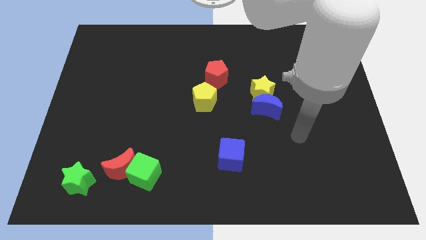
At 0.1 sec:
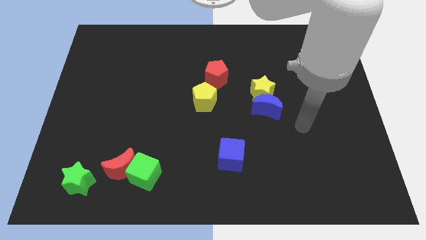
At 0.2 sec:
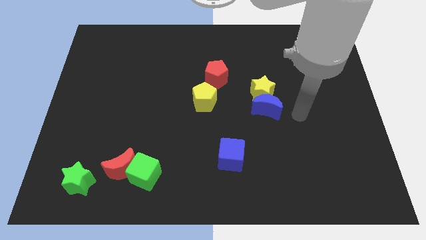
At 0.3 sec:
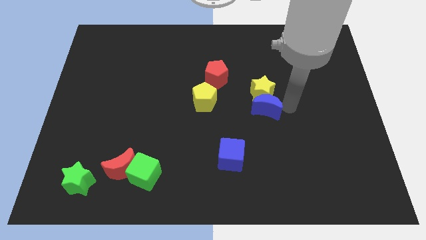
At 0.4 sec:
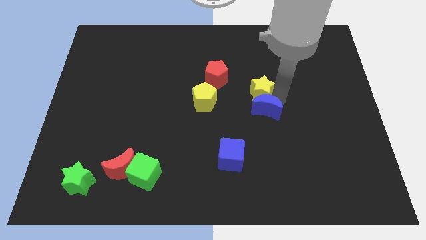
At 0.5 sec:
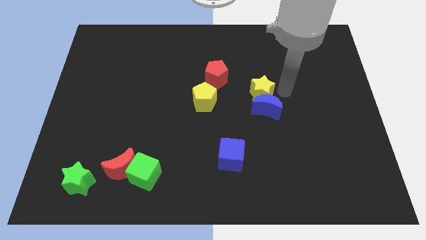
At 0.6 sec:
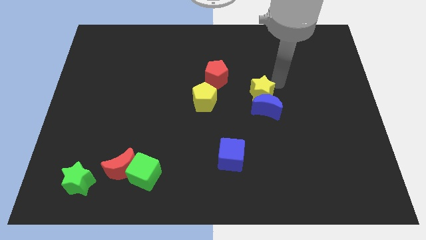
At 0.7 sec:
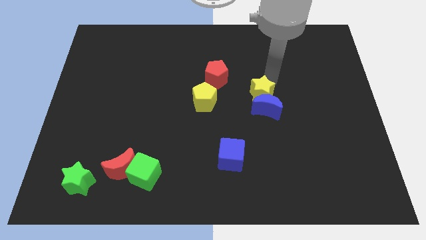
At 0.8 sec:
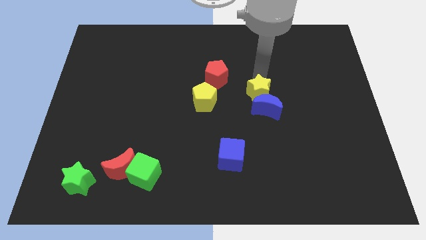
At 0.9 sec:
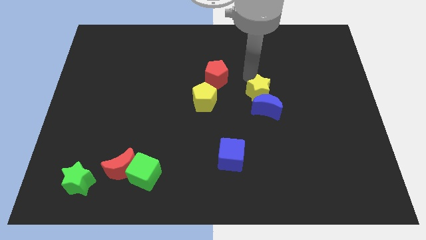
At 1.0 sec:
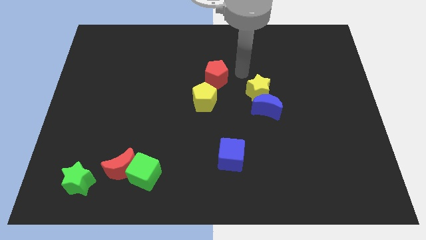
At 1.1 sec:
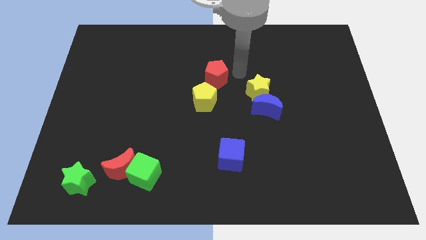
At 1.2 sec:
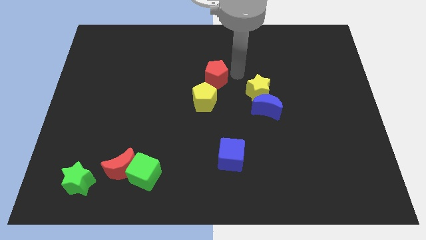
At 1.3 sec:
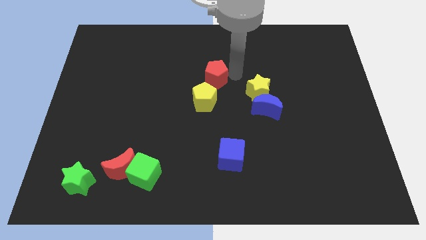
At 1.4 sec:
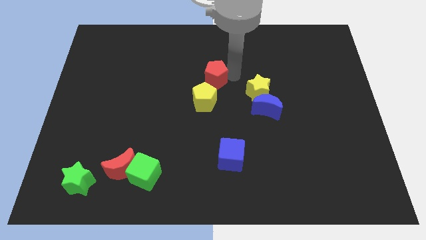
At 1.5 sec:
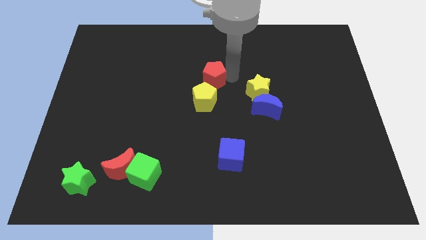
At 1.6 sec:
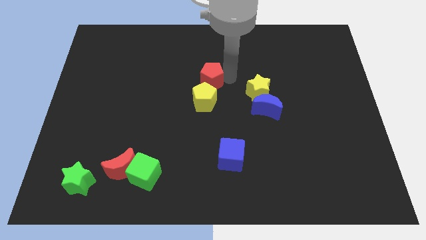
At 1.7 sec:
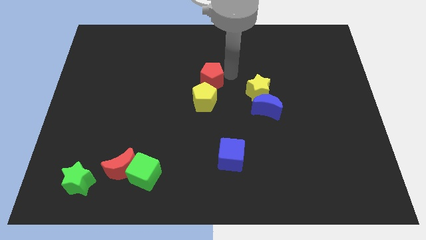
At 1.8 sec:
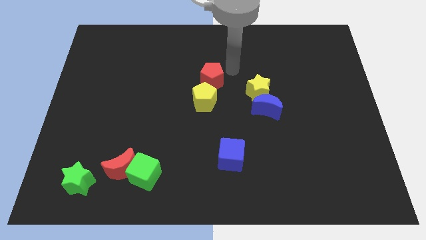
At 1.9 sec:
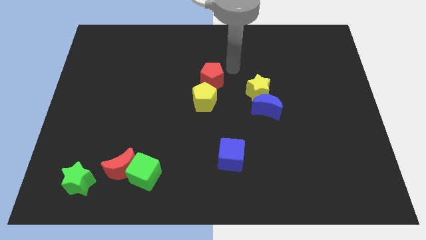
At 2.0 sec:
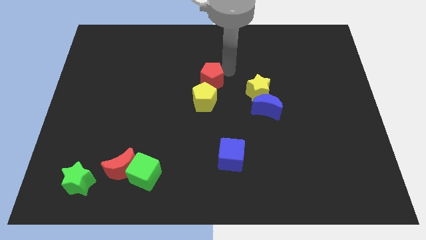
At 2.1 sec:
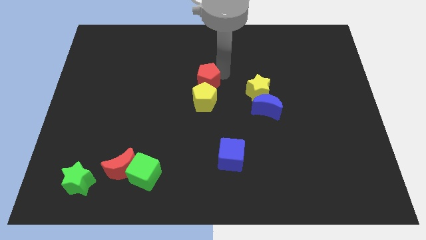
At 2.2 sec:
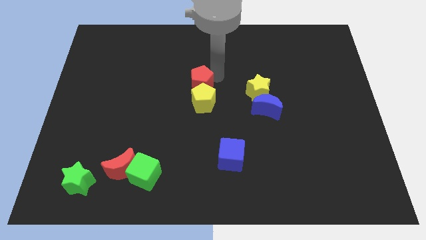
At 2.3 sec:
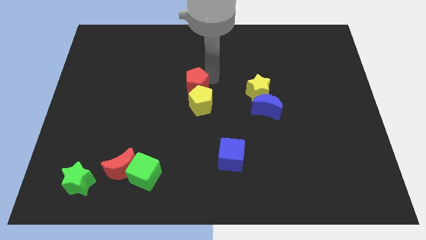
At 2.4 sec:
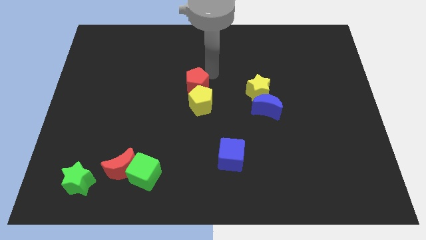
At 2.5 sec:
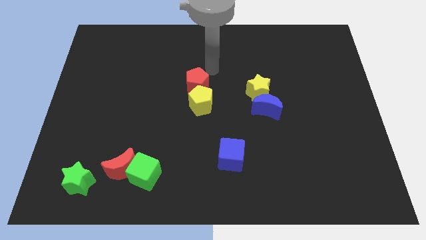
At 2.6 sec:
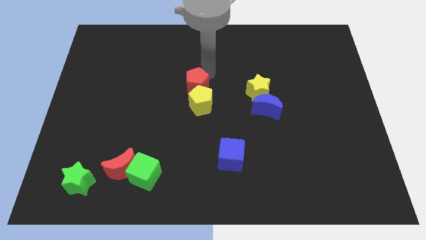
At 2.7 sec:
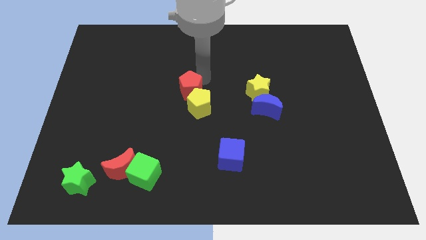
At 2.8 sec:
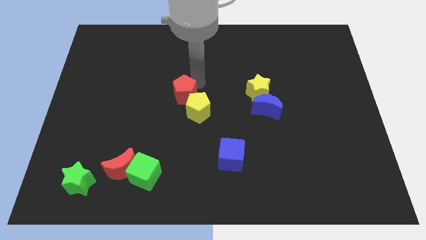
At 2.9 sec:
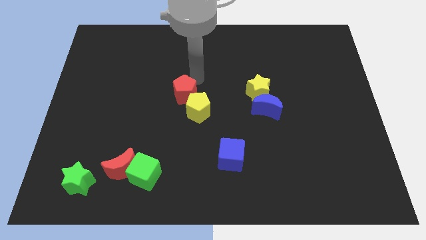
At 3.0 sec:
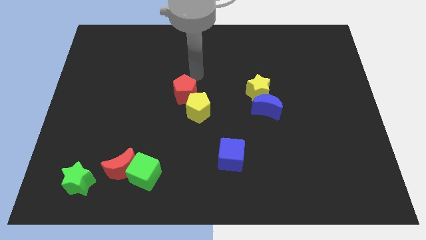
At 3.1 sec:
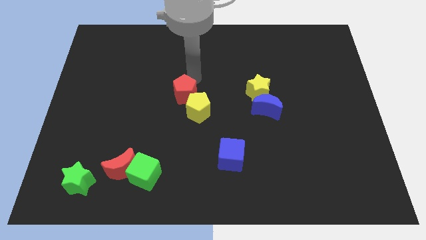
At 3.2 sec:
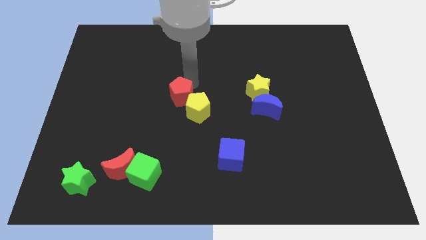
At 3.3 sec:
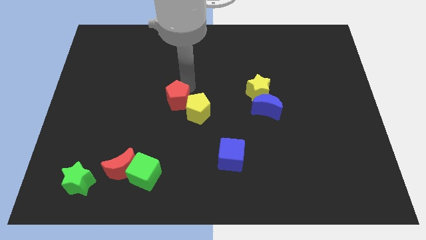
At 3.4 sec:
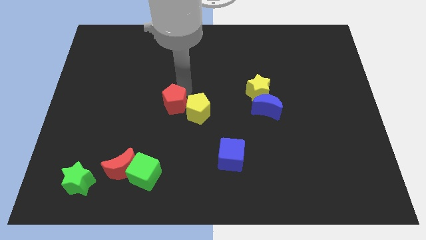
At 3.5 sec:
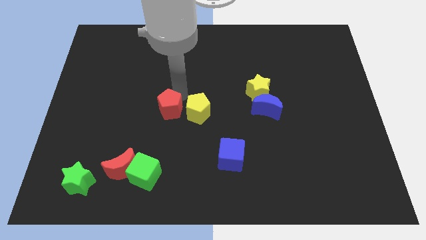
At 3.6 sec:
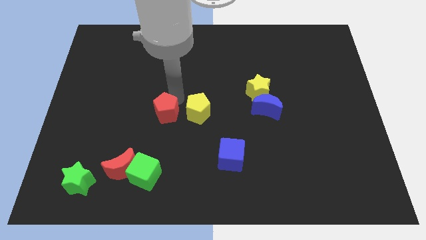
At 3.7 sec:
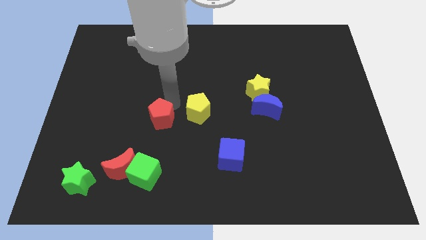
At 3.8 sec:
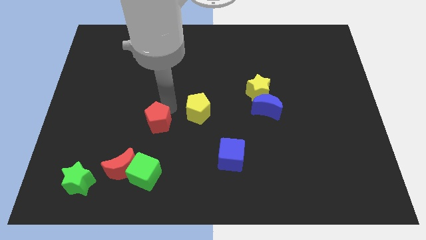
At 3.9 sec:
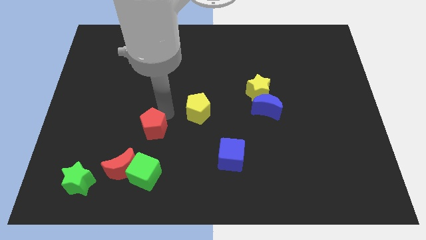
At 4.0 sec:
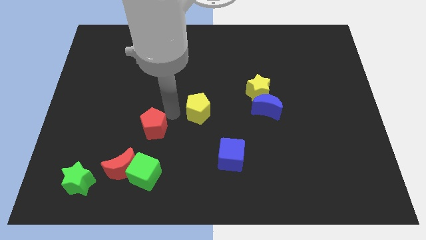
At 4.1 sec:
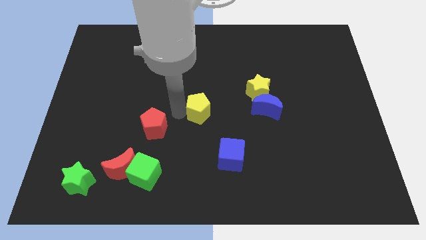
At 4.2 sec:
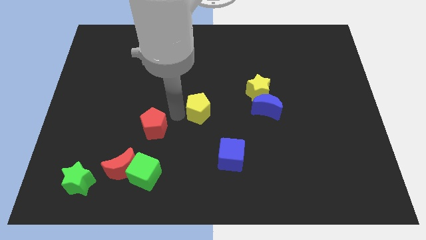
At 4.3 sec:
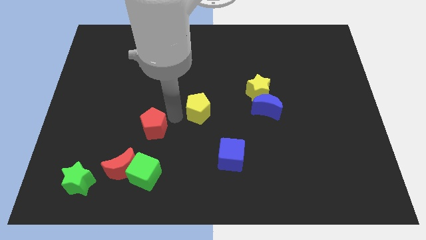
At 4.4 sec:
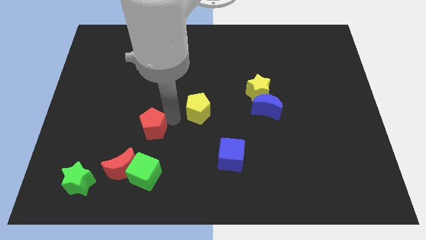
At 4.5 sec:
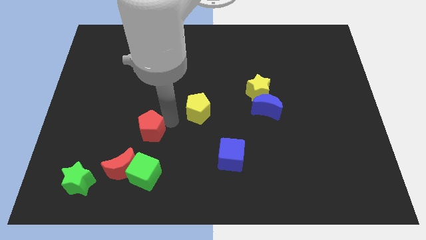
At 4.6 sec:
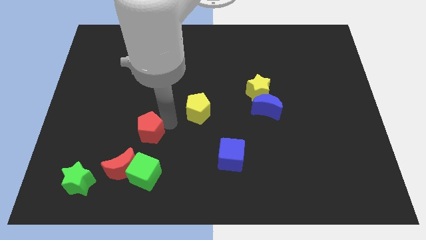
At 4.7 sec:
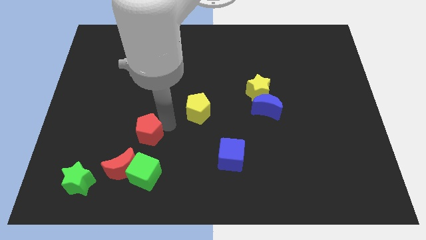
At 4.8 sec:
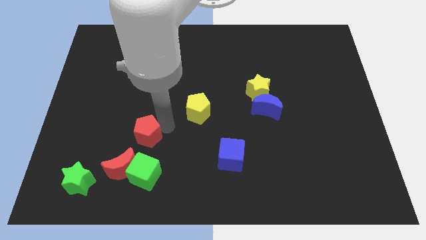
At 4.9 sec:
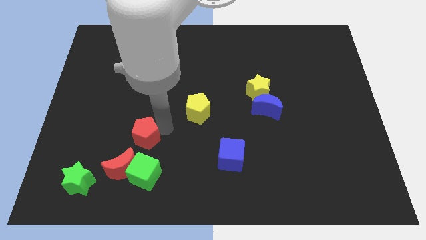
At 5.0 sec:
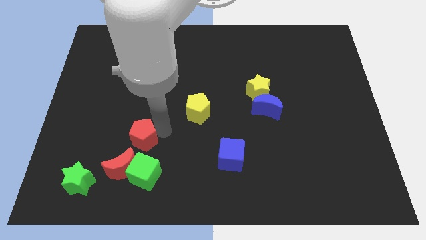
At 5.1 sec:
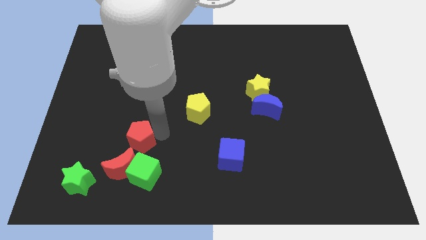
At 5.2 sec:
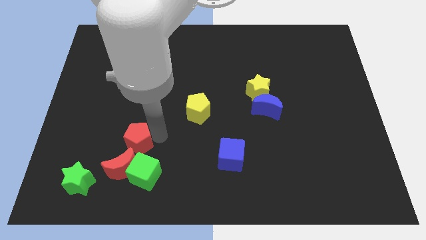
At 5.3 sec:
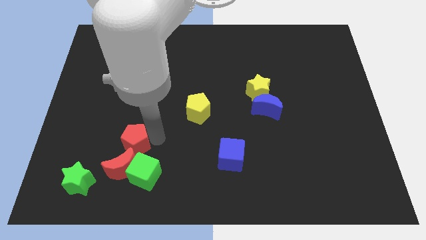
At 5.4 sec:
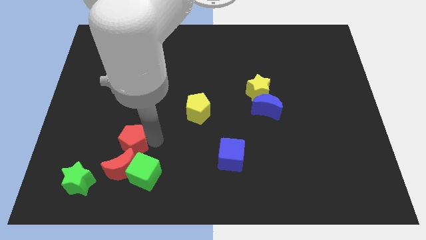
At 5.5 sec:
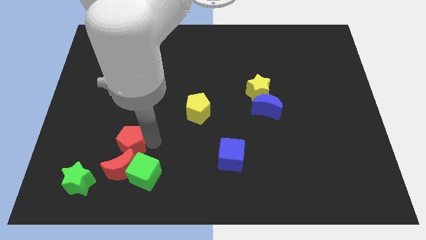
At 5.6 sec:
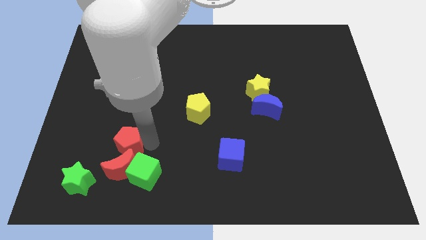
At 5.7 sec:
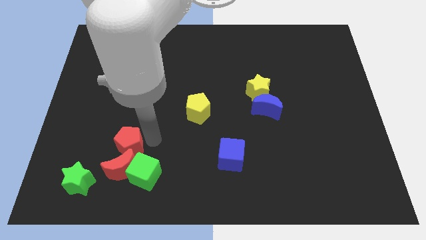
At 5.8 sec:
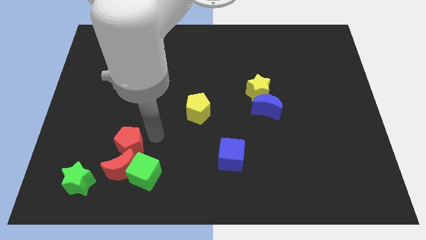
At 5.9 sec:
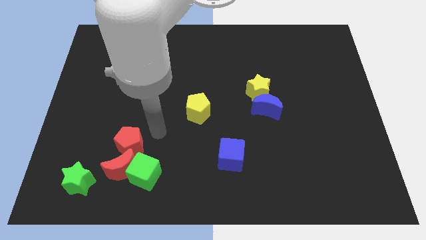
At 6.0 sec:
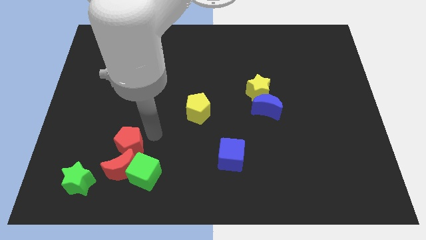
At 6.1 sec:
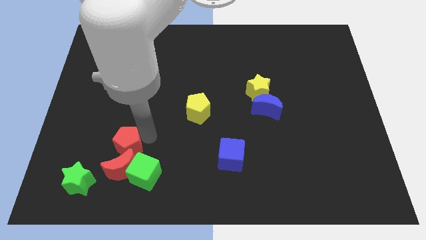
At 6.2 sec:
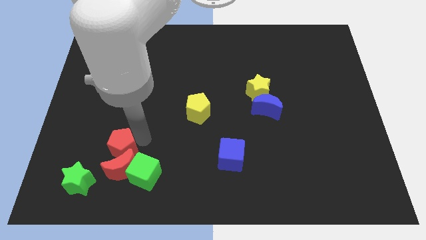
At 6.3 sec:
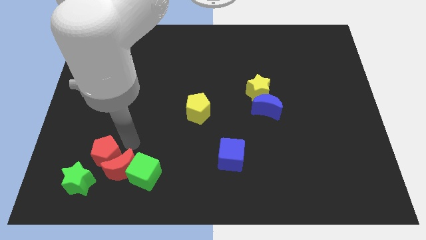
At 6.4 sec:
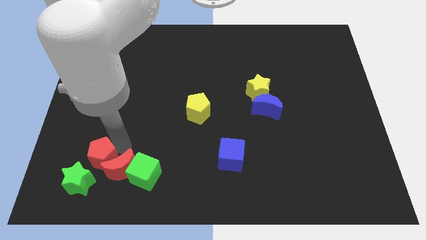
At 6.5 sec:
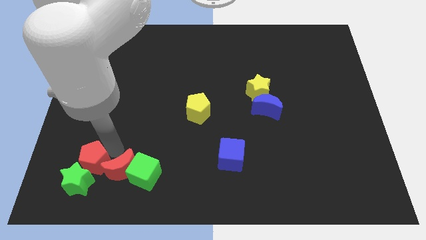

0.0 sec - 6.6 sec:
push the red pentagon to the green star

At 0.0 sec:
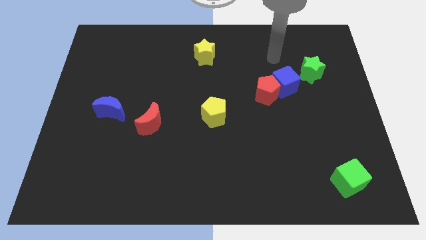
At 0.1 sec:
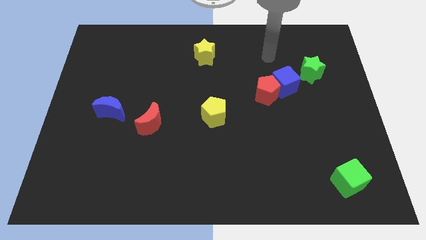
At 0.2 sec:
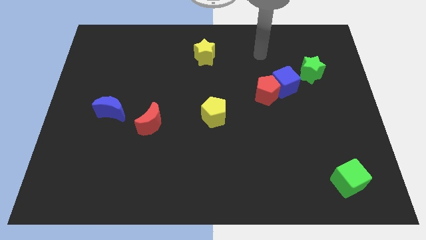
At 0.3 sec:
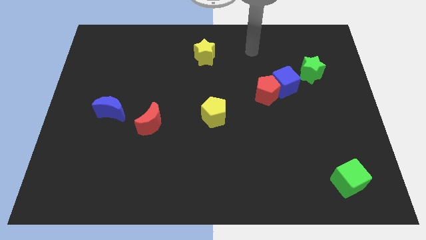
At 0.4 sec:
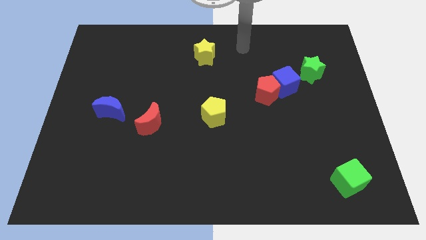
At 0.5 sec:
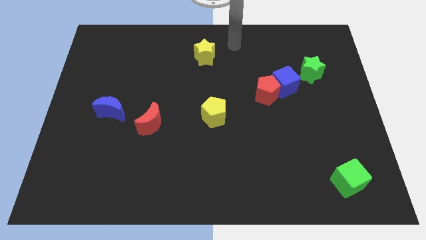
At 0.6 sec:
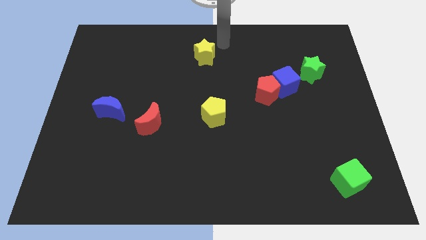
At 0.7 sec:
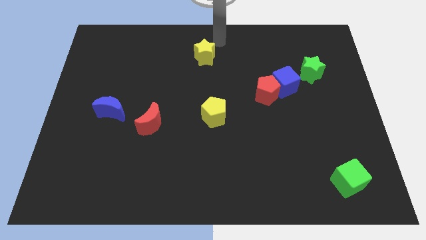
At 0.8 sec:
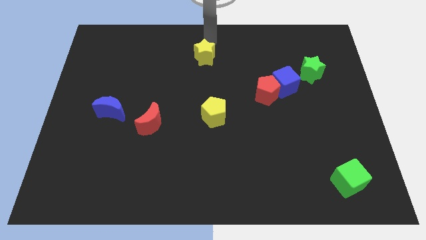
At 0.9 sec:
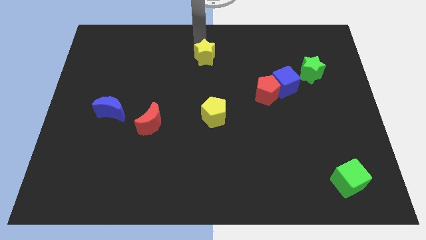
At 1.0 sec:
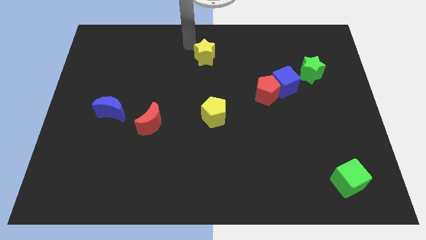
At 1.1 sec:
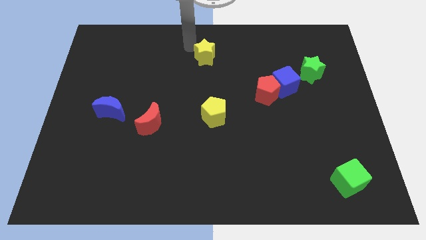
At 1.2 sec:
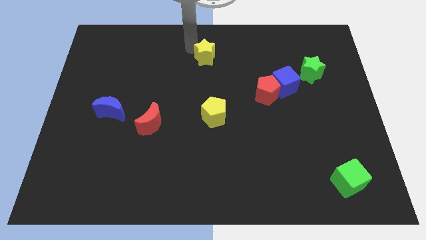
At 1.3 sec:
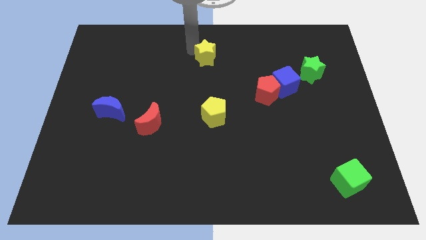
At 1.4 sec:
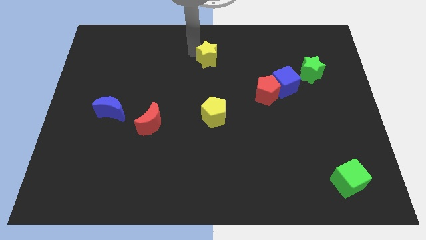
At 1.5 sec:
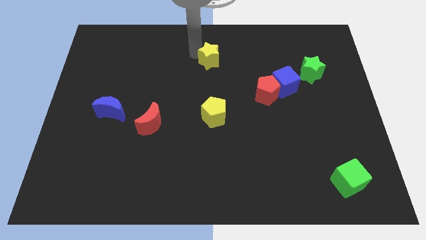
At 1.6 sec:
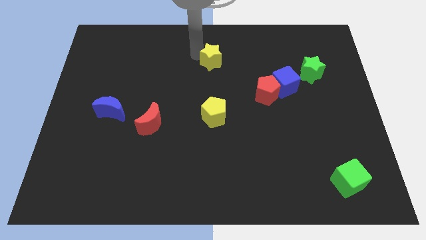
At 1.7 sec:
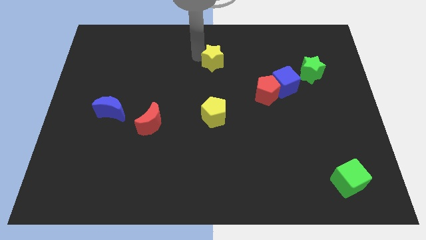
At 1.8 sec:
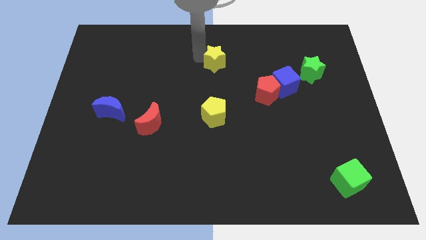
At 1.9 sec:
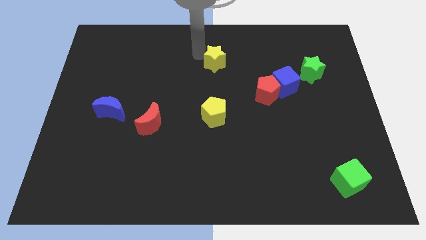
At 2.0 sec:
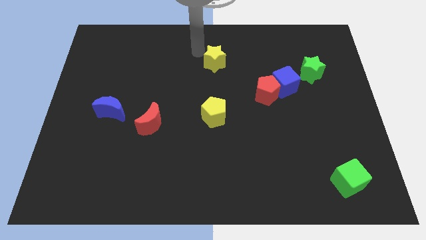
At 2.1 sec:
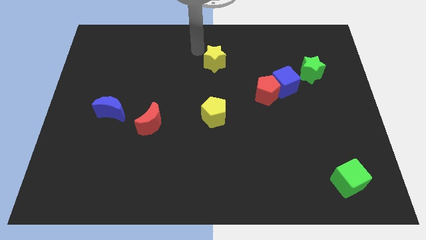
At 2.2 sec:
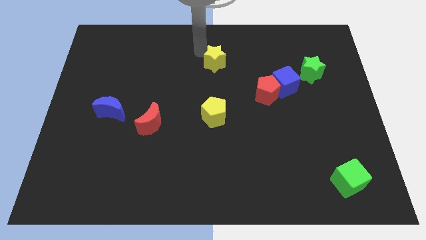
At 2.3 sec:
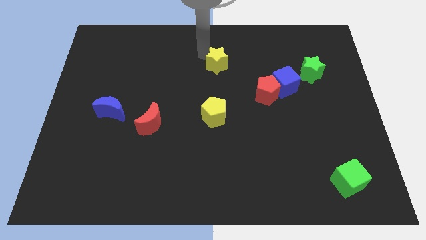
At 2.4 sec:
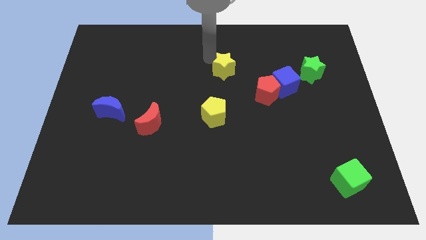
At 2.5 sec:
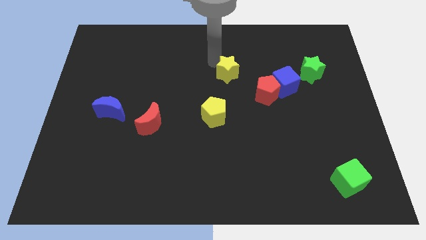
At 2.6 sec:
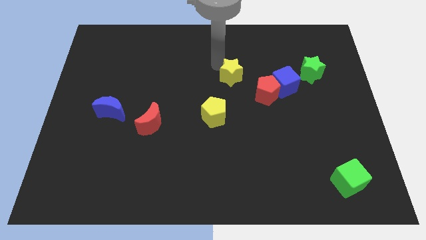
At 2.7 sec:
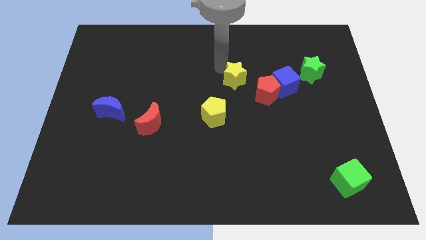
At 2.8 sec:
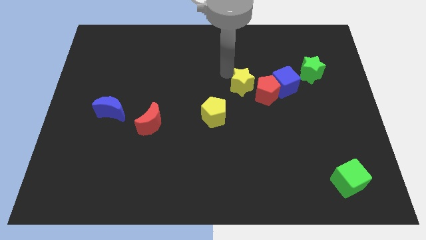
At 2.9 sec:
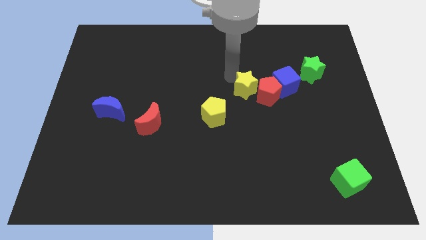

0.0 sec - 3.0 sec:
push the yellow star next to the red pentagon
